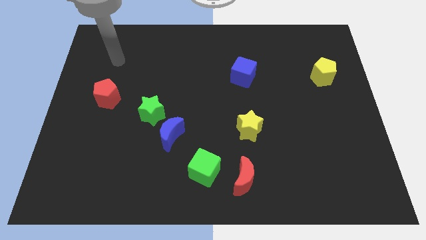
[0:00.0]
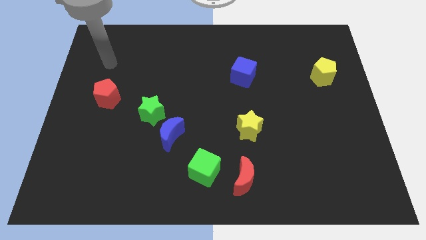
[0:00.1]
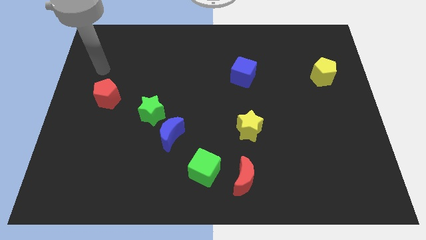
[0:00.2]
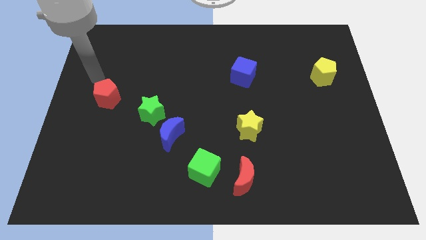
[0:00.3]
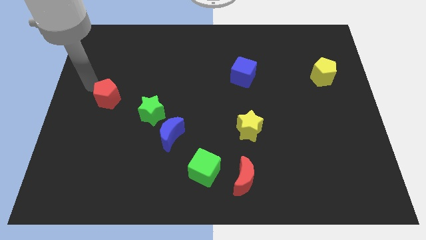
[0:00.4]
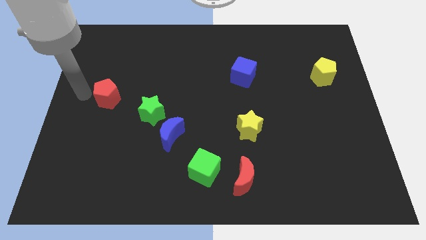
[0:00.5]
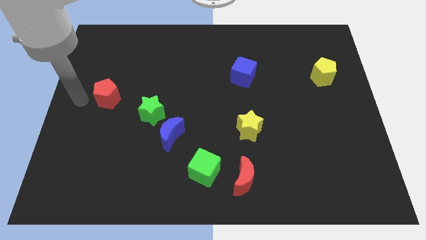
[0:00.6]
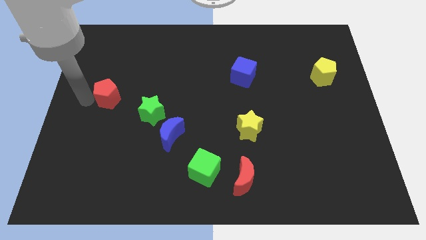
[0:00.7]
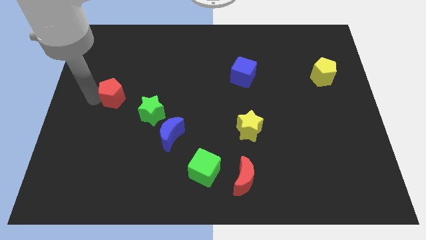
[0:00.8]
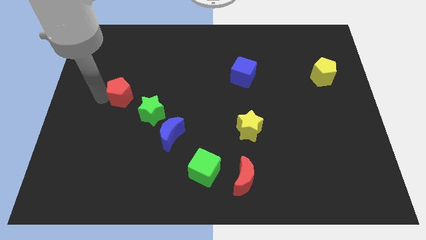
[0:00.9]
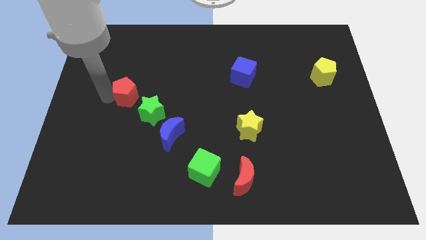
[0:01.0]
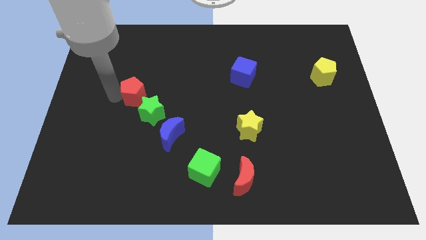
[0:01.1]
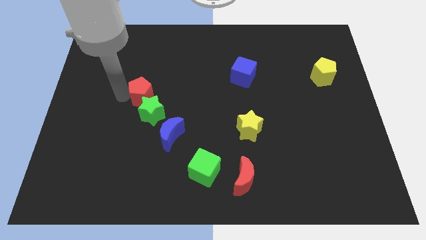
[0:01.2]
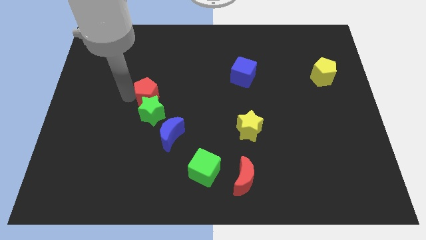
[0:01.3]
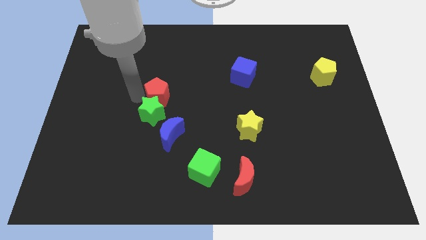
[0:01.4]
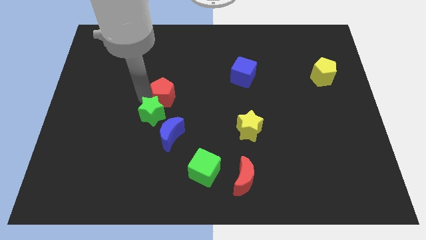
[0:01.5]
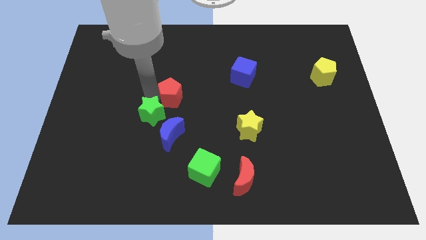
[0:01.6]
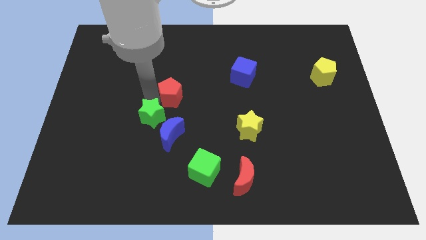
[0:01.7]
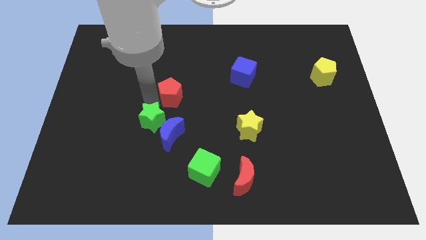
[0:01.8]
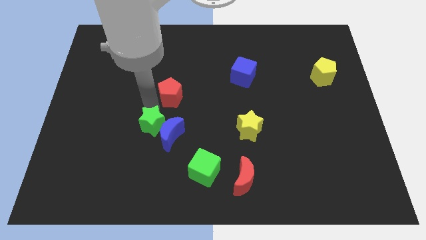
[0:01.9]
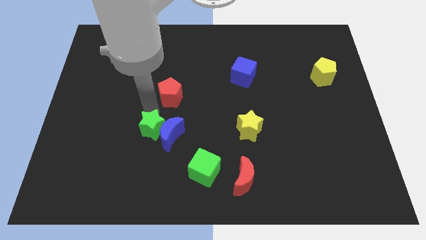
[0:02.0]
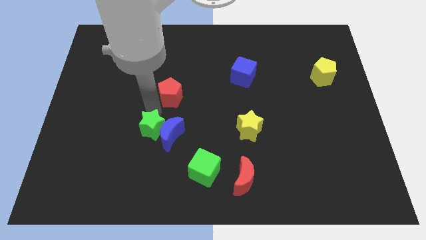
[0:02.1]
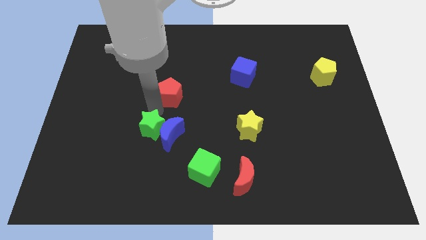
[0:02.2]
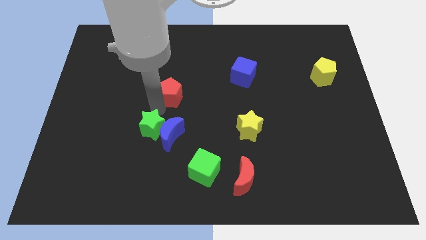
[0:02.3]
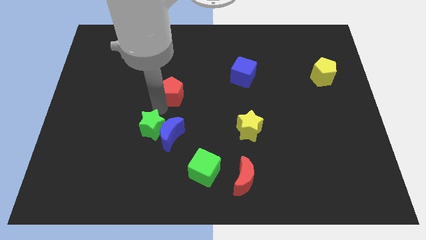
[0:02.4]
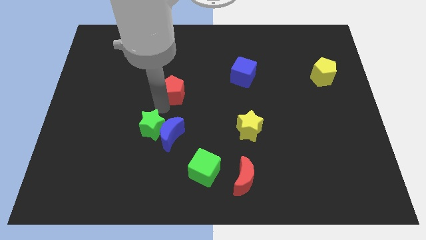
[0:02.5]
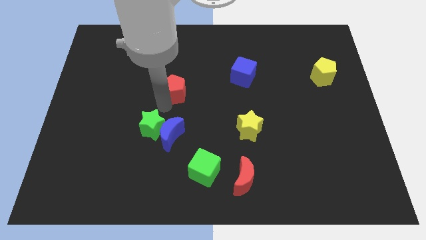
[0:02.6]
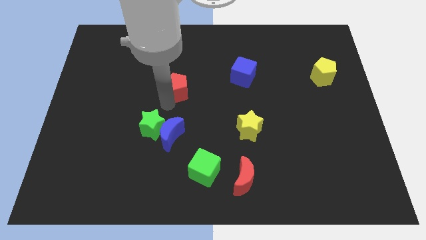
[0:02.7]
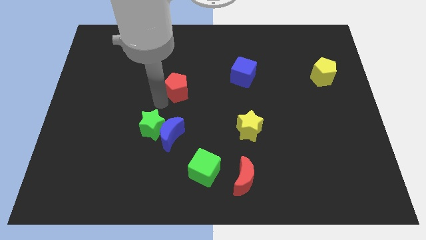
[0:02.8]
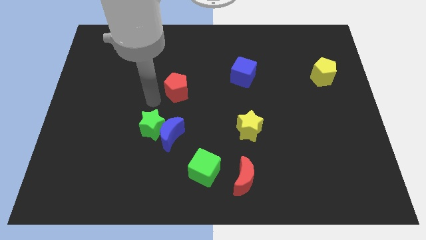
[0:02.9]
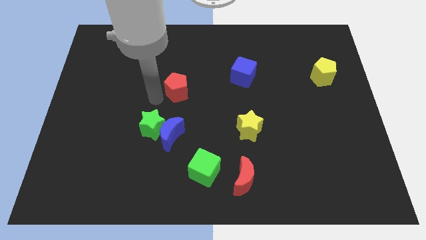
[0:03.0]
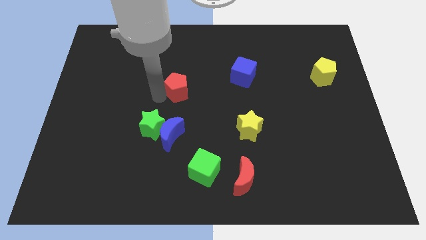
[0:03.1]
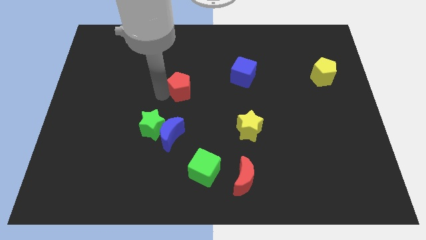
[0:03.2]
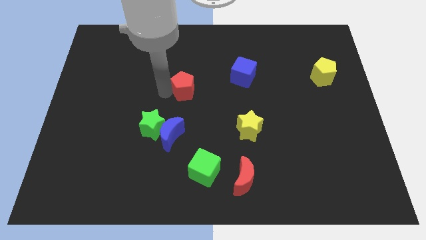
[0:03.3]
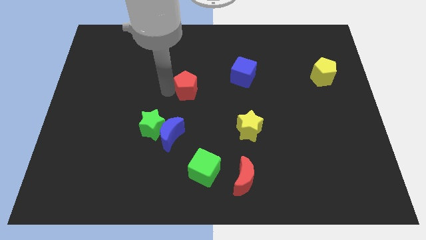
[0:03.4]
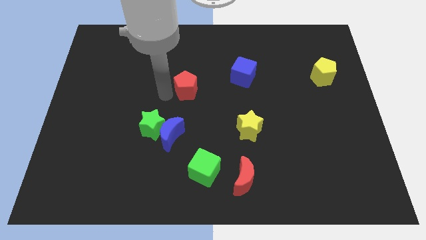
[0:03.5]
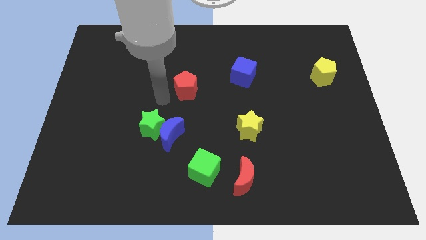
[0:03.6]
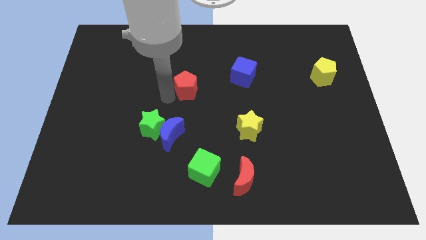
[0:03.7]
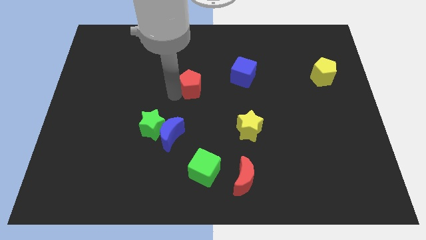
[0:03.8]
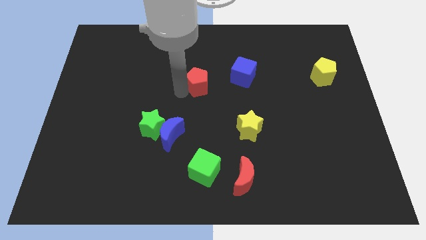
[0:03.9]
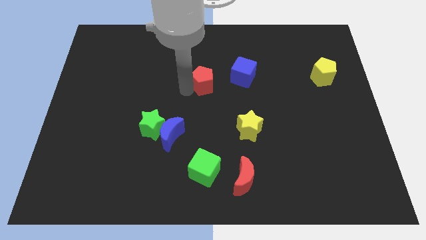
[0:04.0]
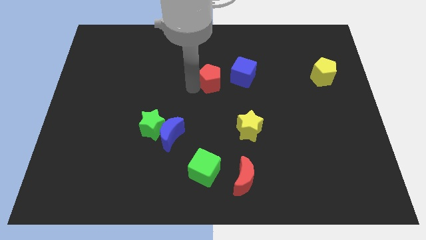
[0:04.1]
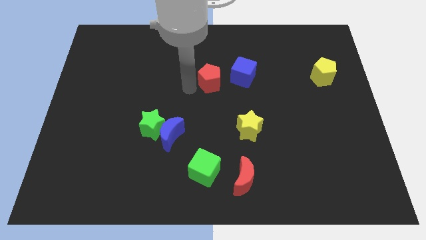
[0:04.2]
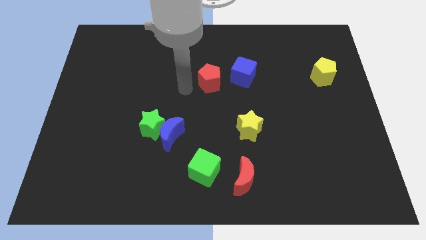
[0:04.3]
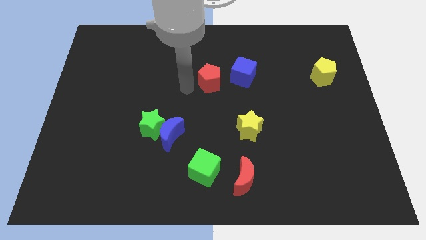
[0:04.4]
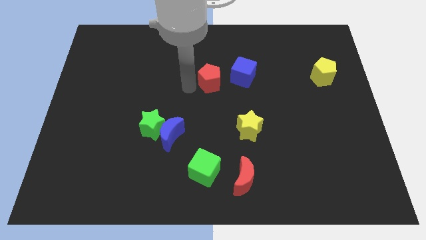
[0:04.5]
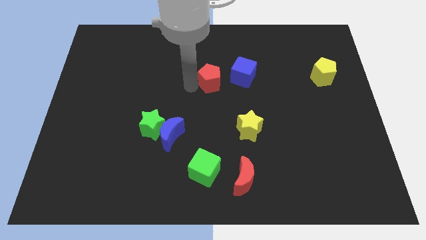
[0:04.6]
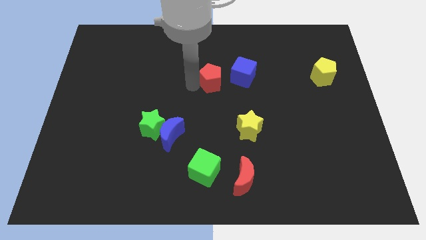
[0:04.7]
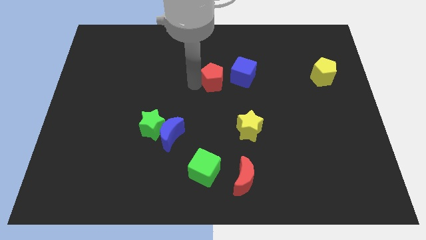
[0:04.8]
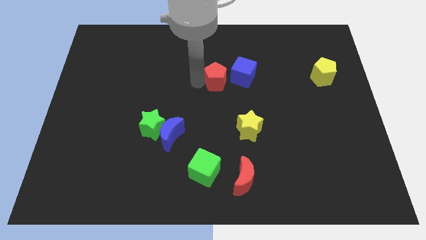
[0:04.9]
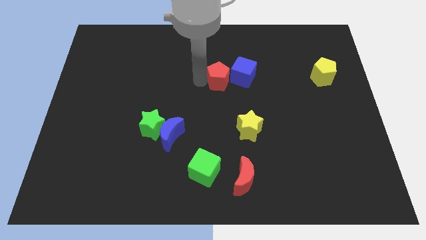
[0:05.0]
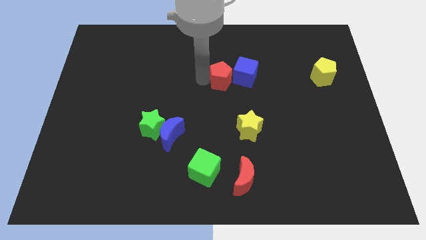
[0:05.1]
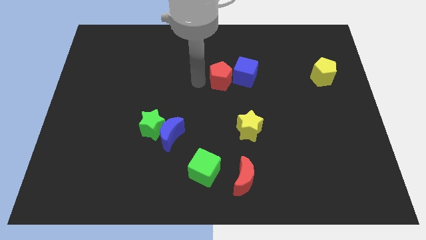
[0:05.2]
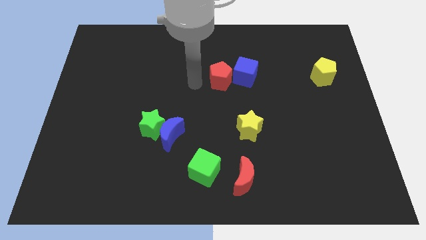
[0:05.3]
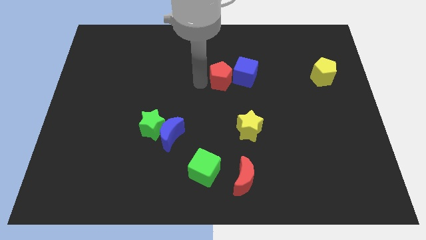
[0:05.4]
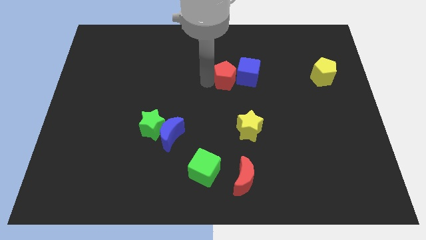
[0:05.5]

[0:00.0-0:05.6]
push the red pentagon next to the blue cube
